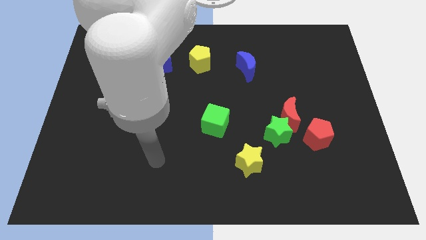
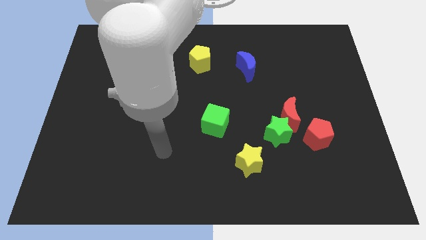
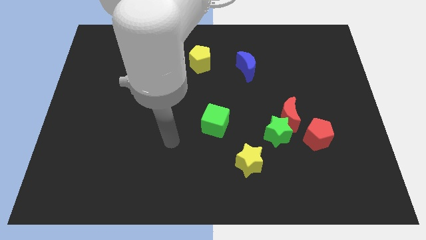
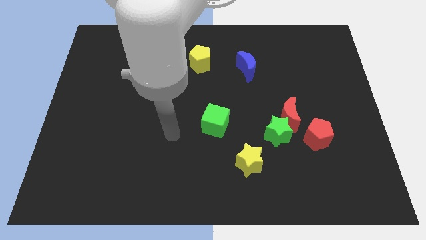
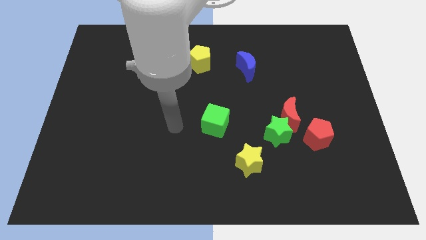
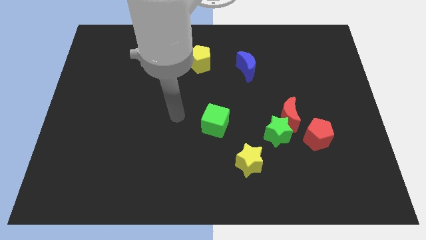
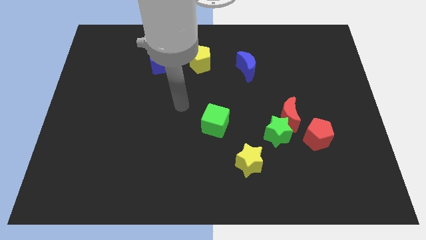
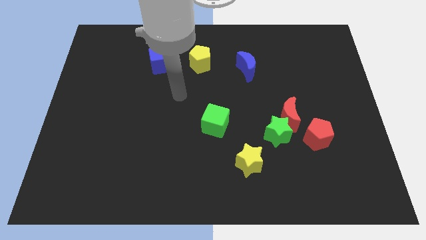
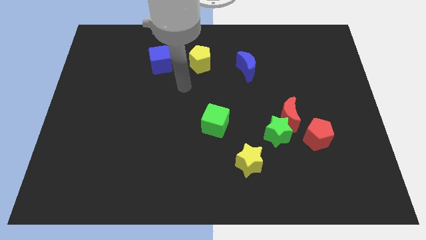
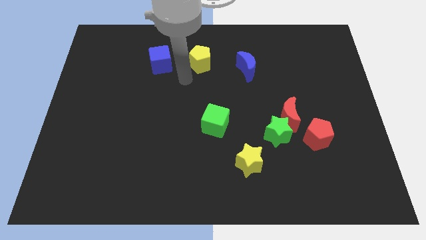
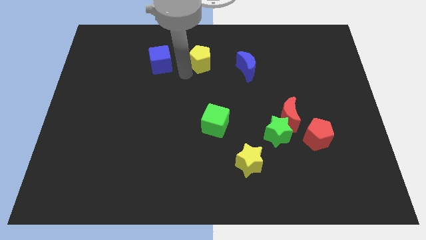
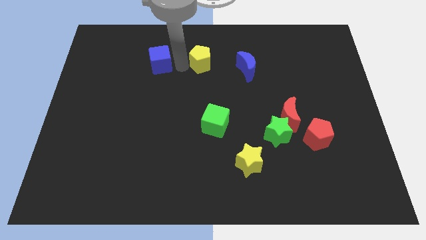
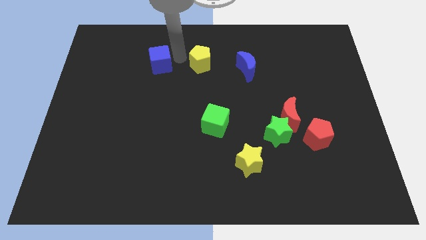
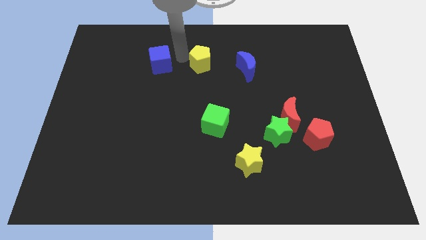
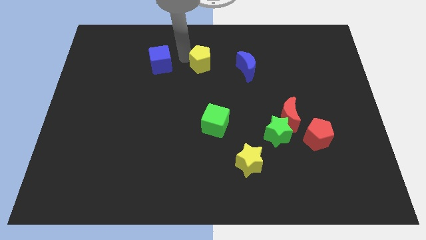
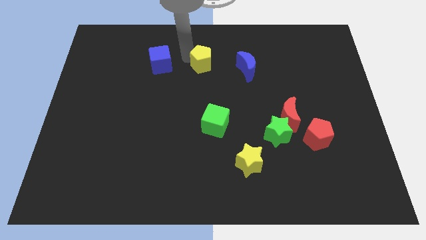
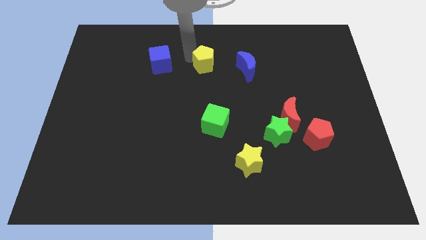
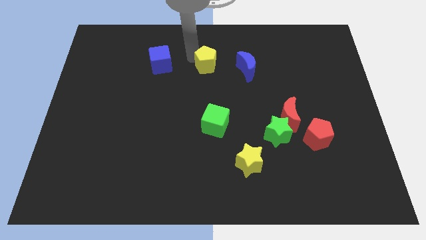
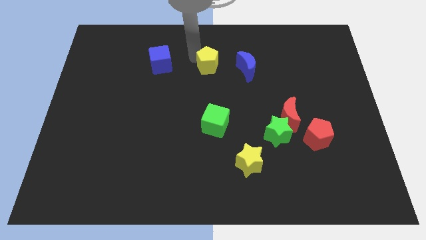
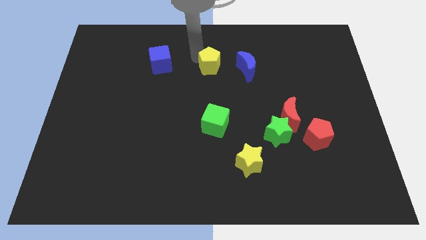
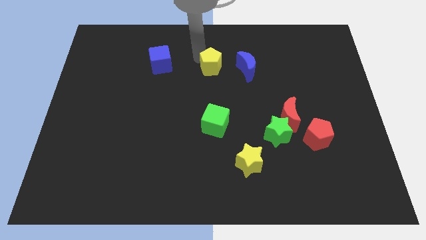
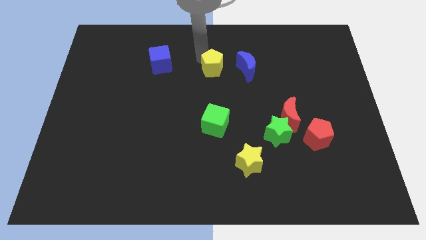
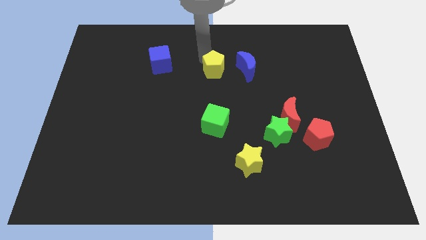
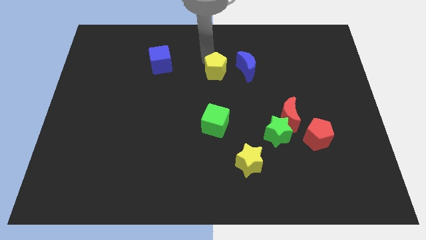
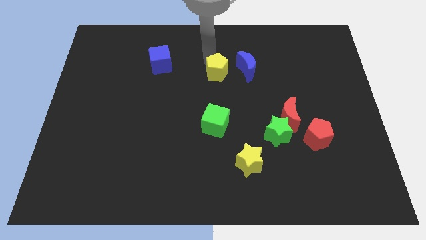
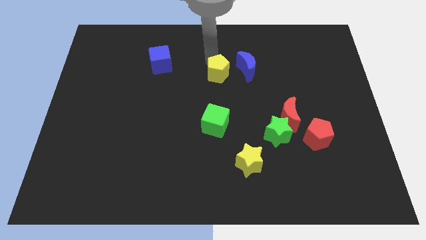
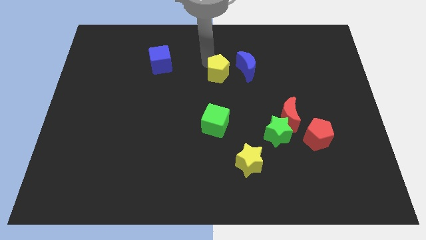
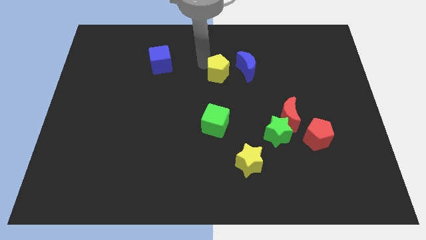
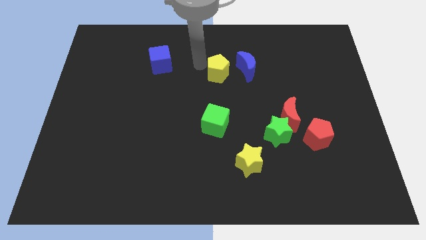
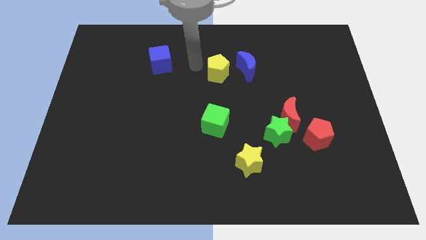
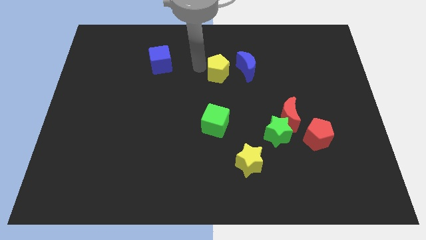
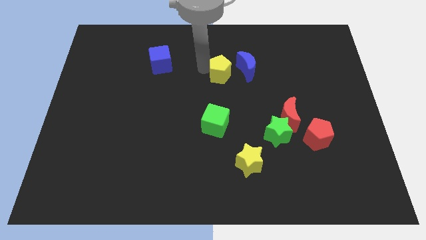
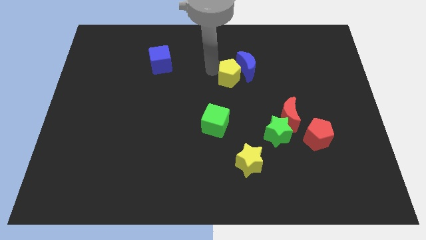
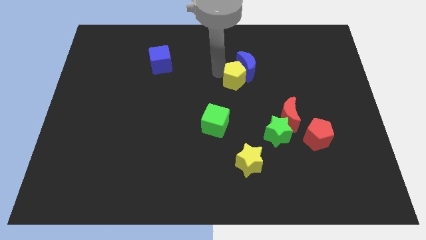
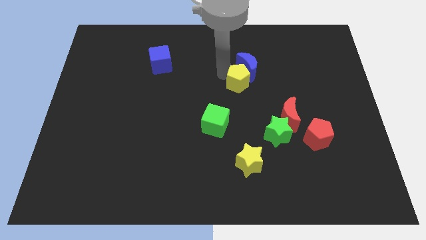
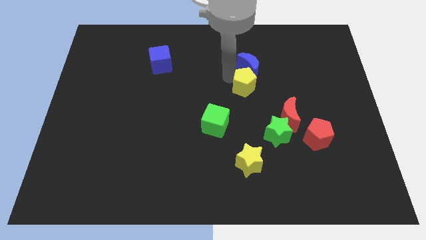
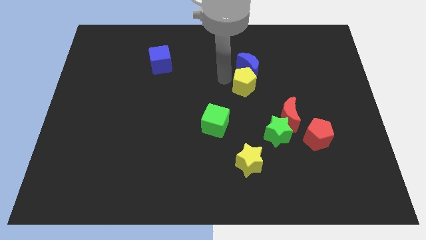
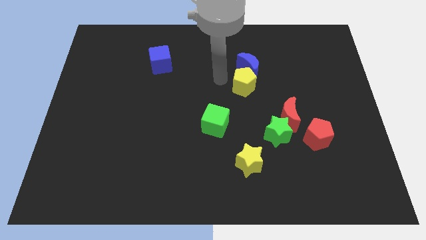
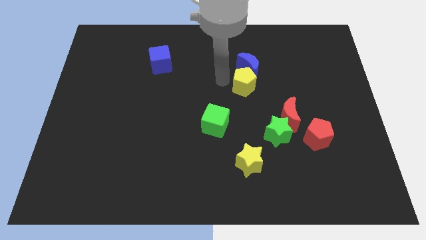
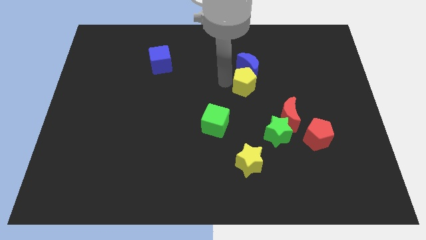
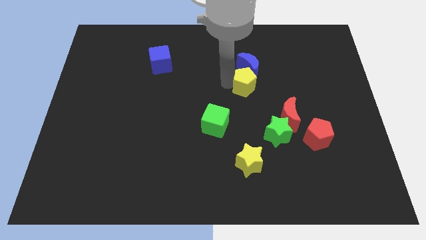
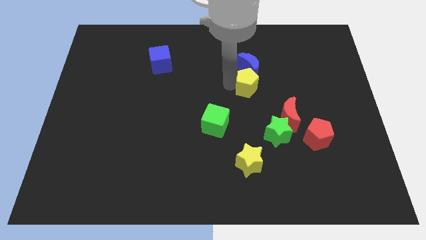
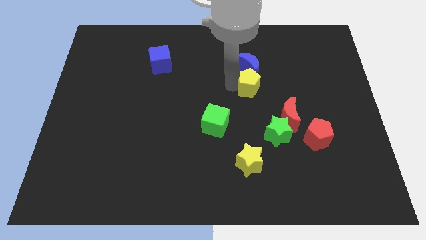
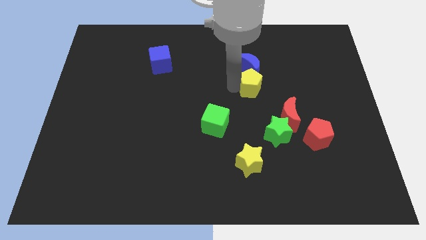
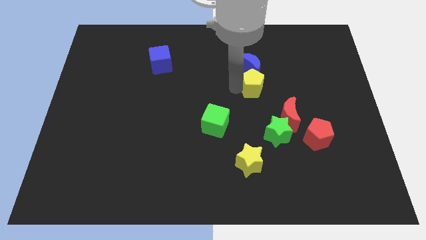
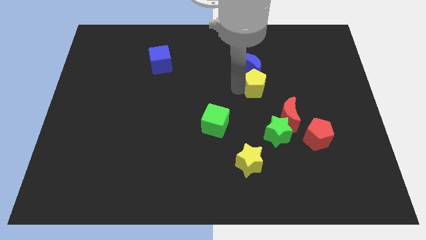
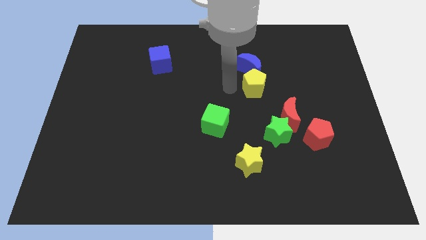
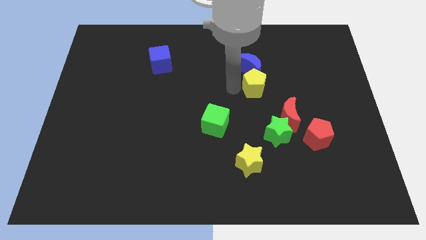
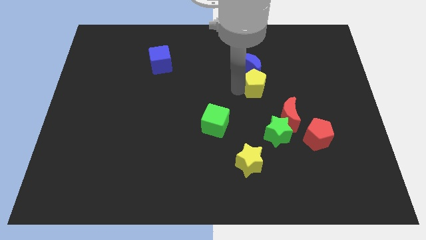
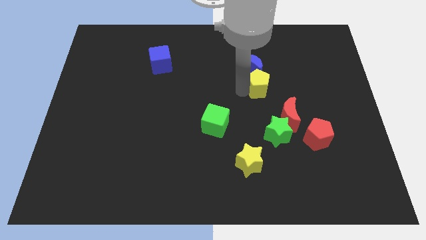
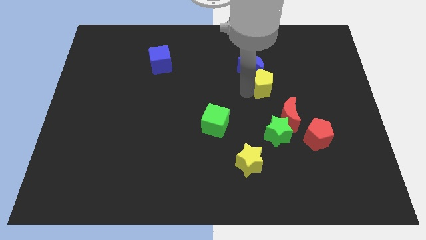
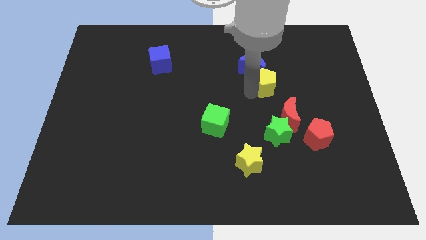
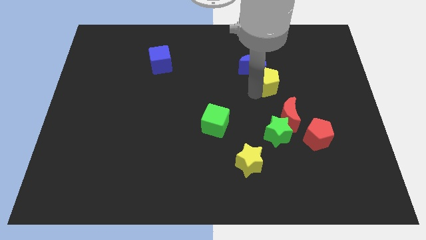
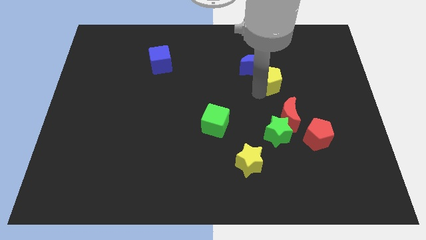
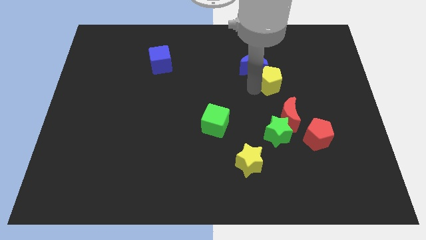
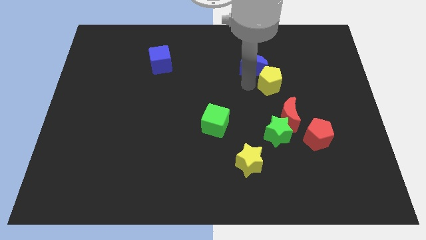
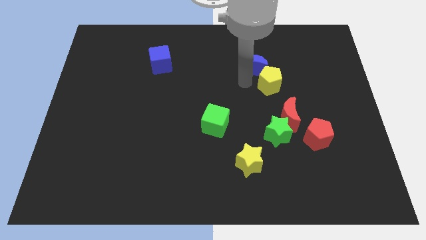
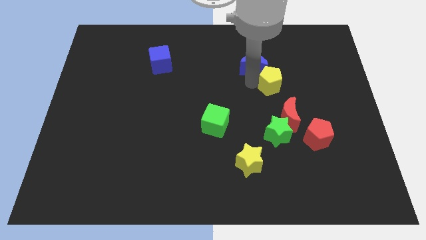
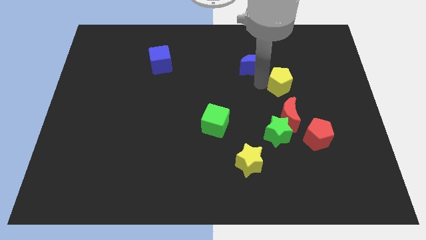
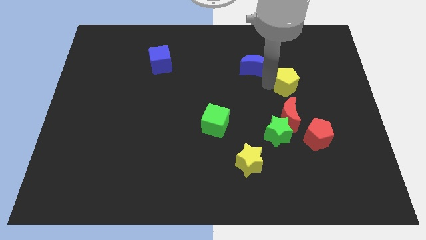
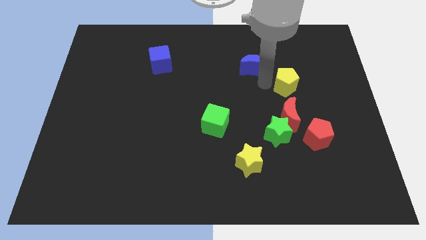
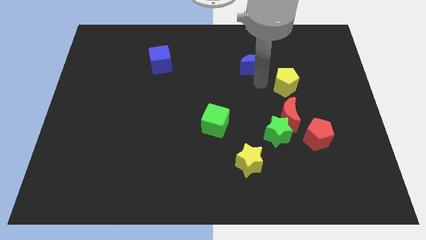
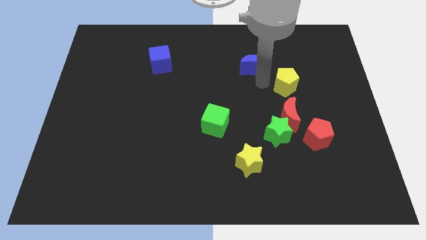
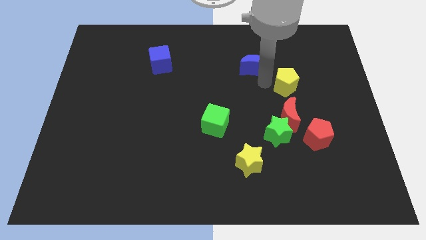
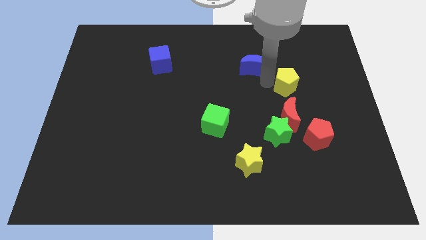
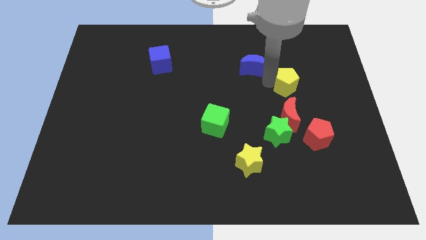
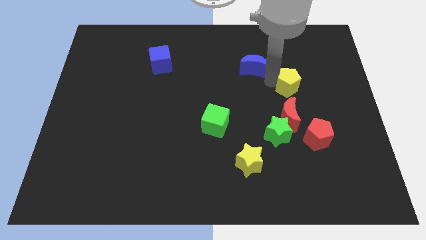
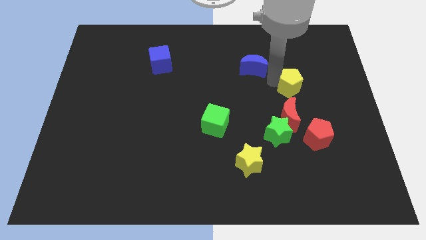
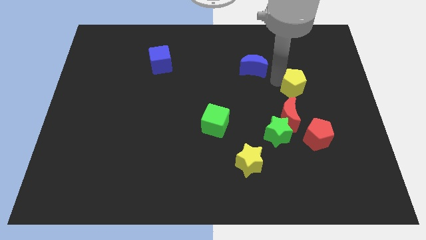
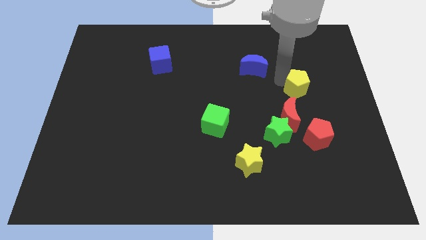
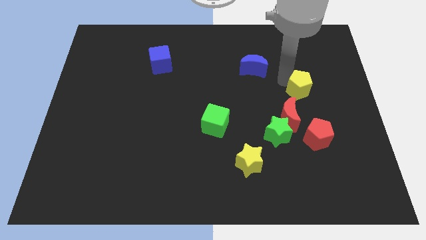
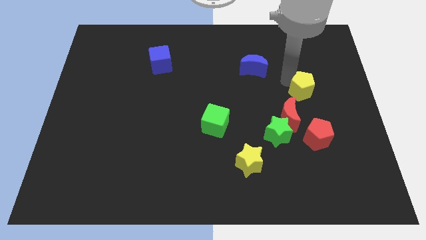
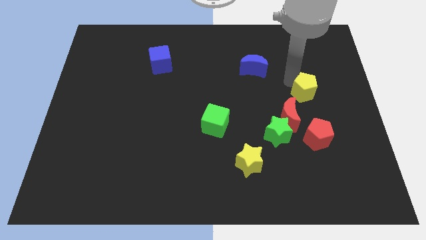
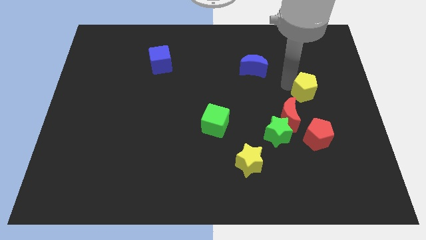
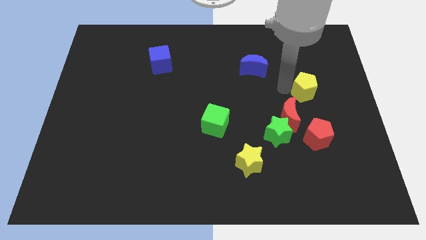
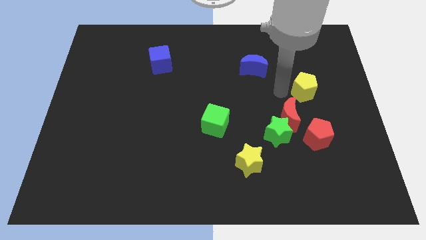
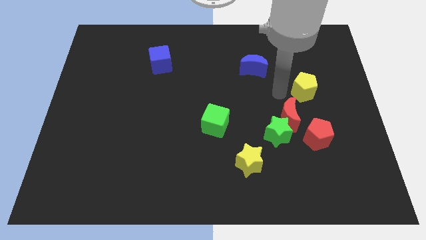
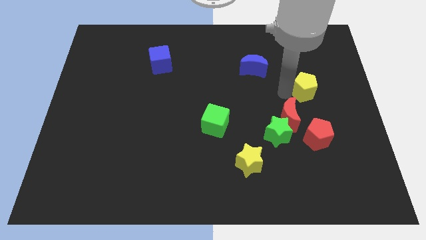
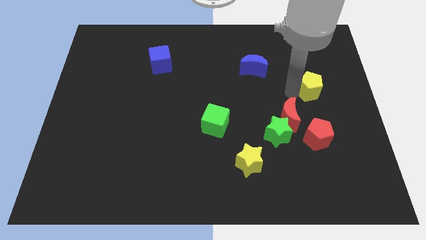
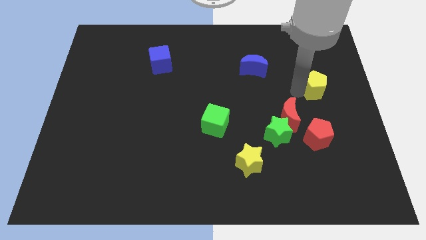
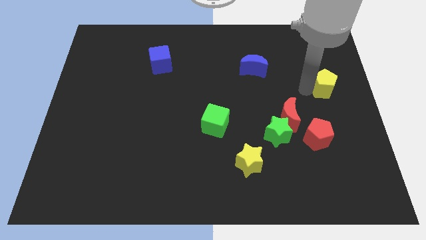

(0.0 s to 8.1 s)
move the yellow pentagon to the right side
